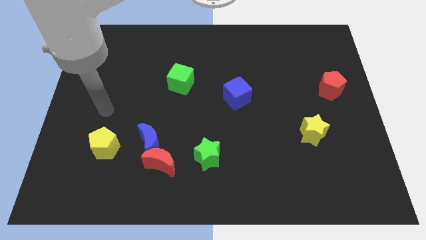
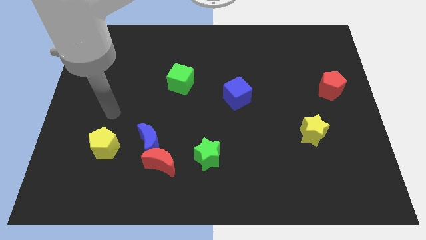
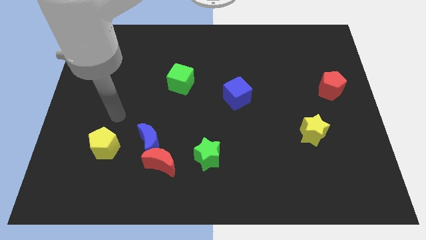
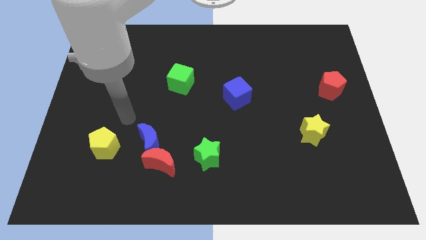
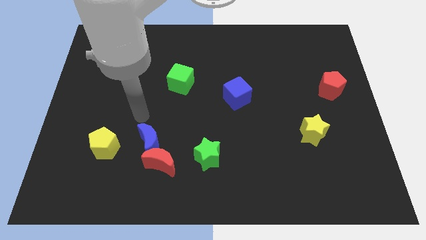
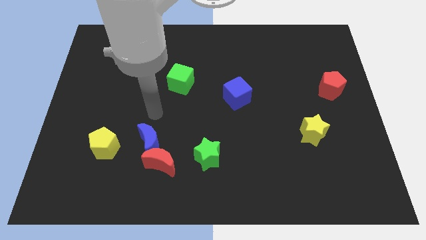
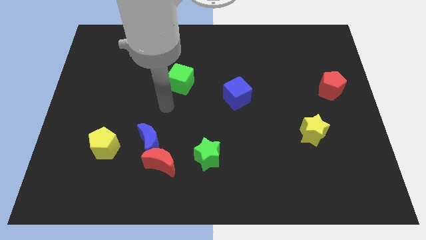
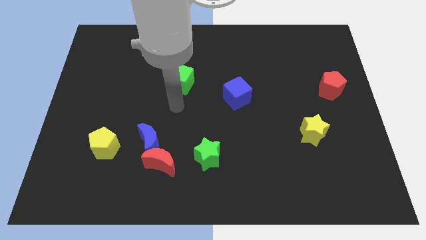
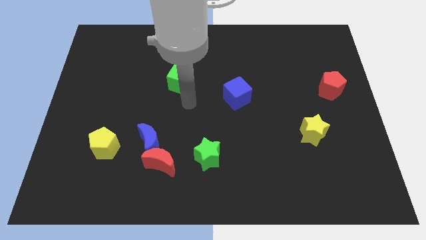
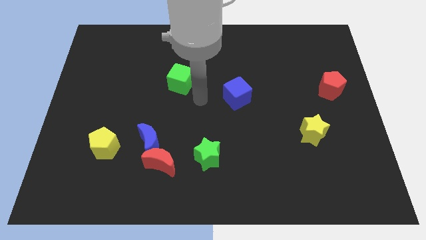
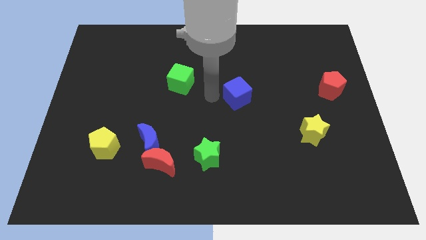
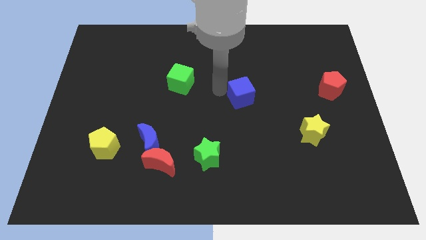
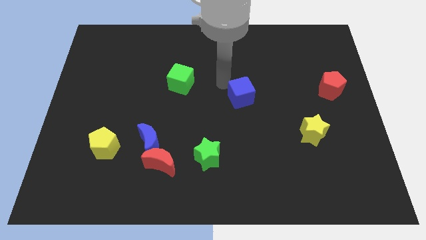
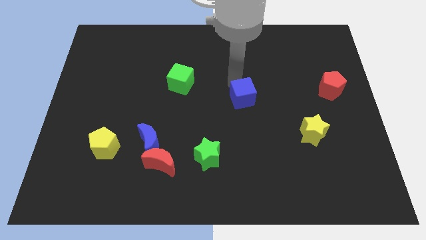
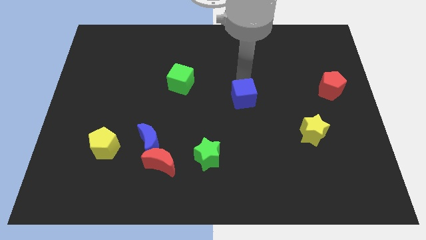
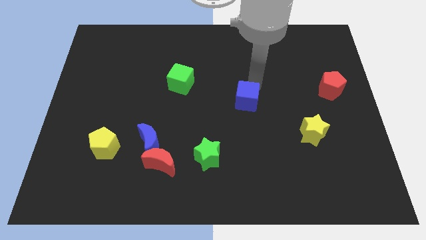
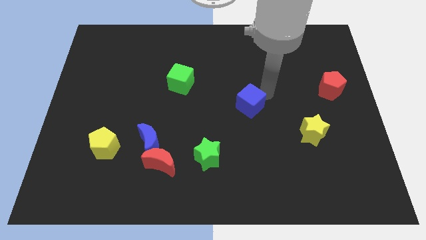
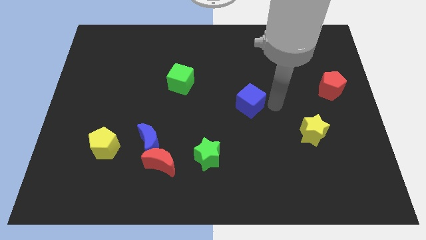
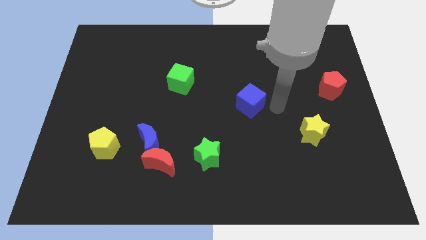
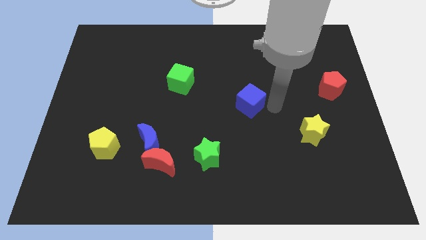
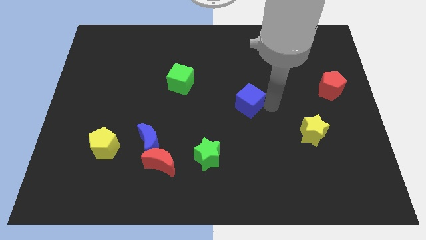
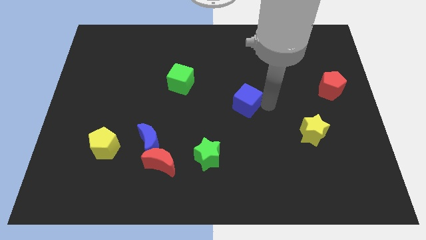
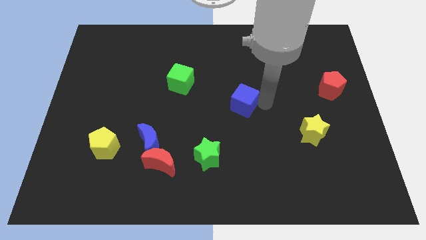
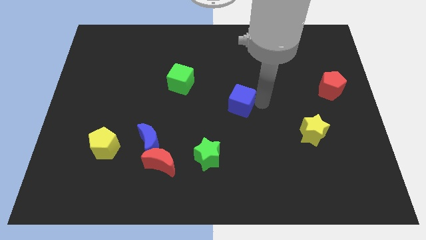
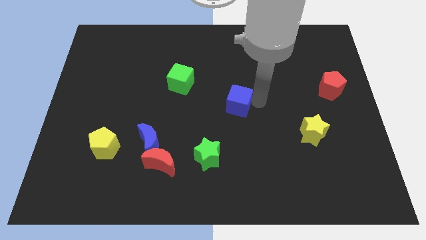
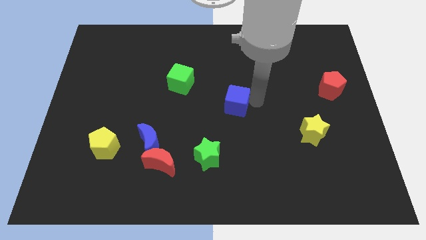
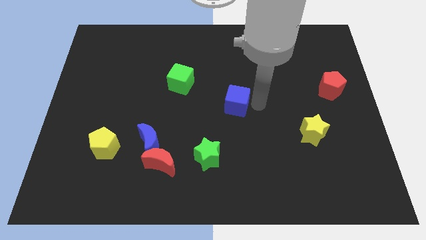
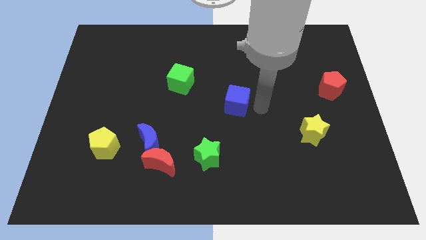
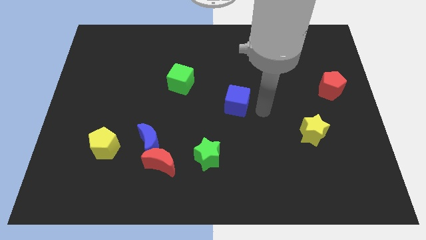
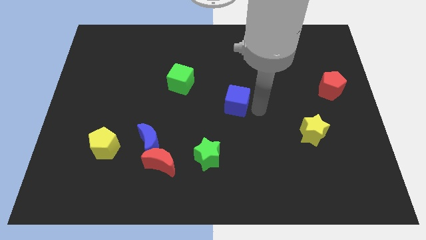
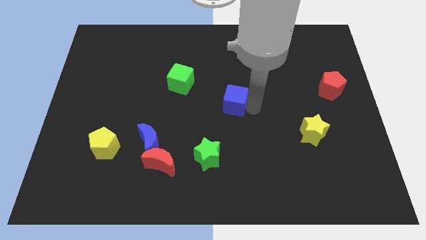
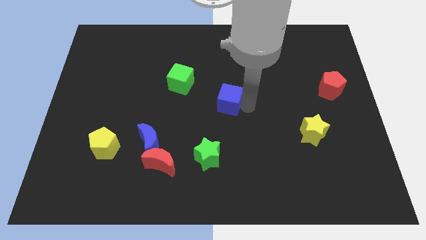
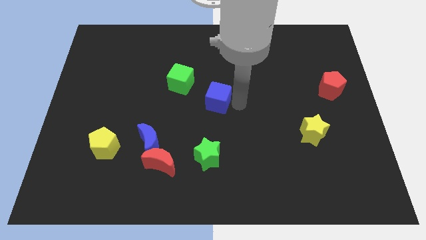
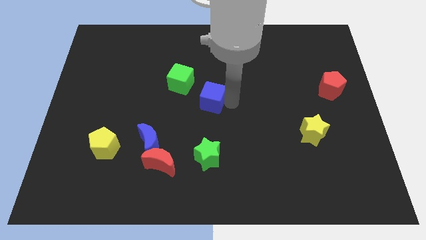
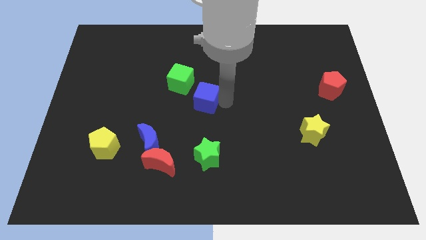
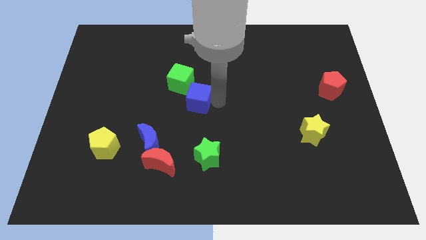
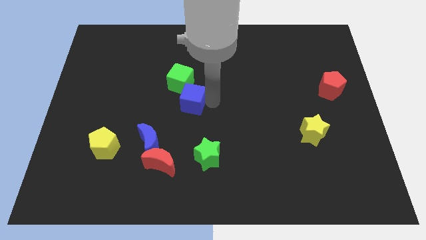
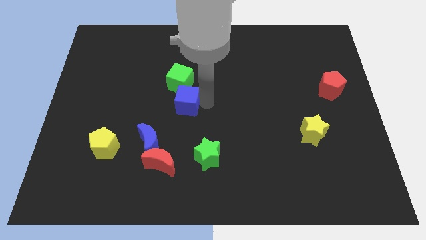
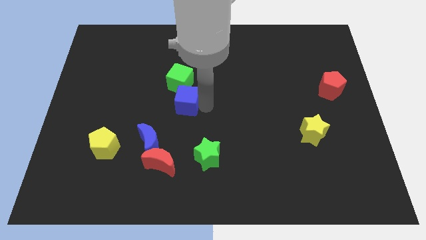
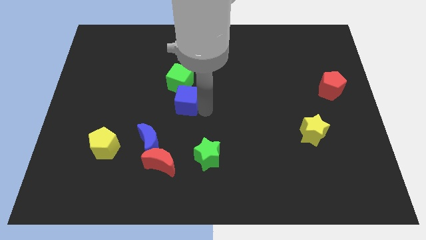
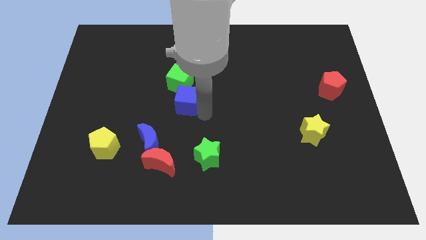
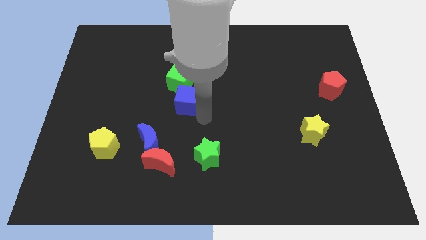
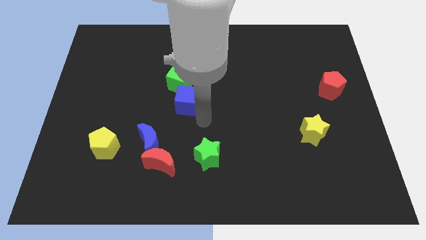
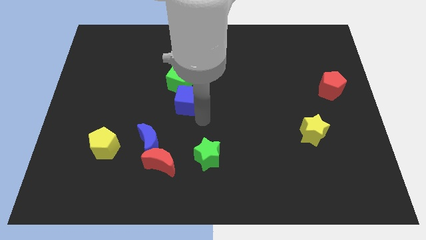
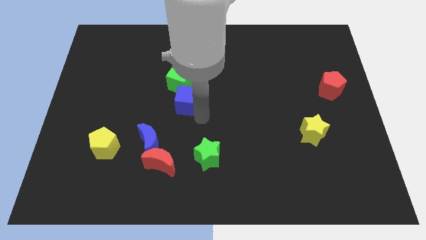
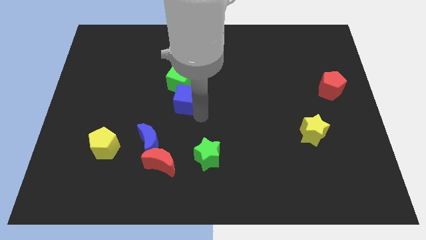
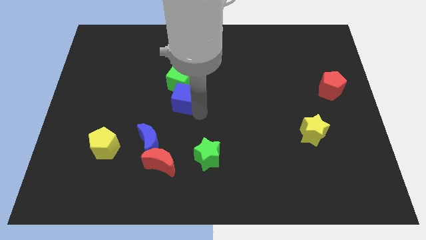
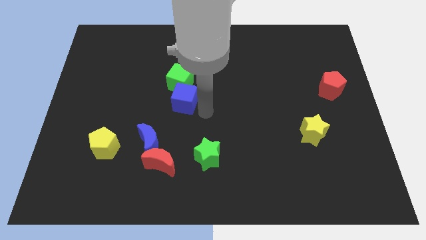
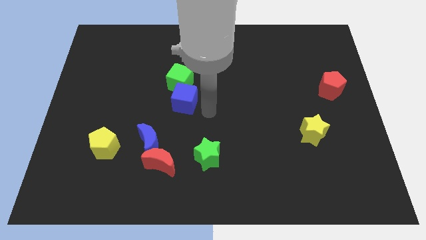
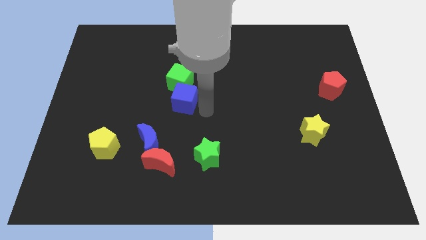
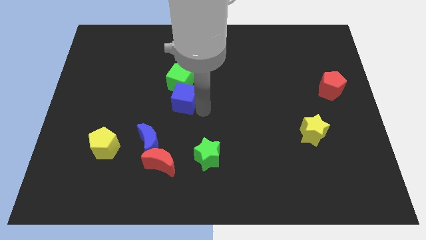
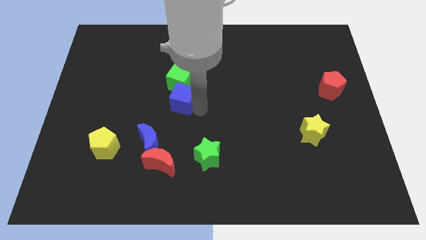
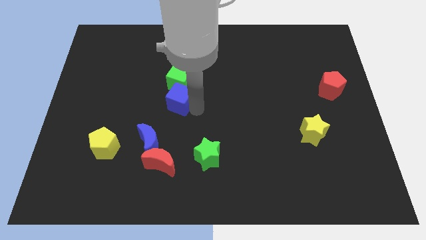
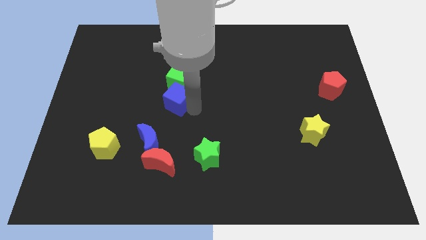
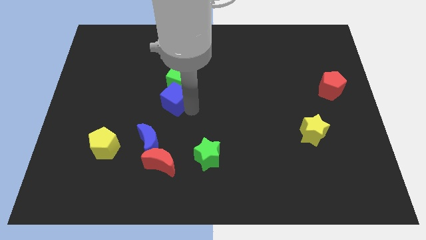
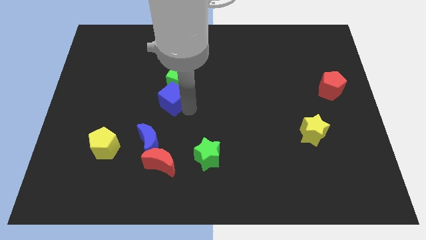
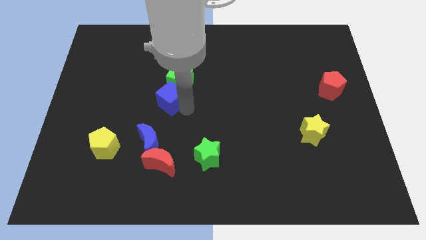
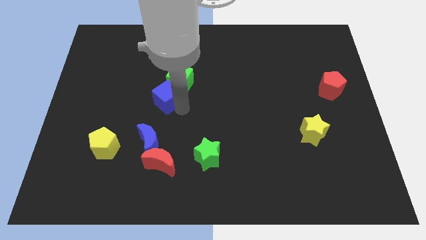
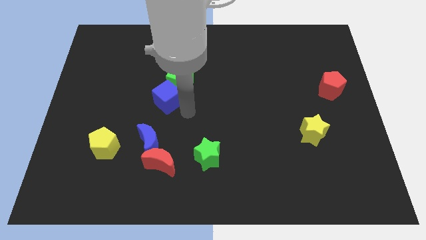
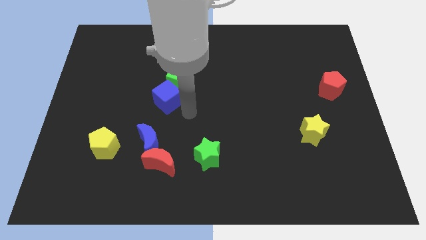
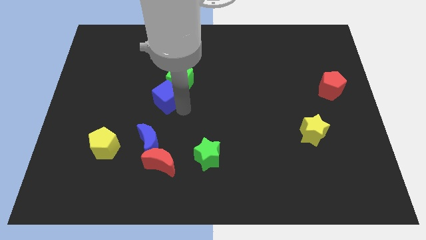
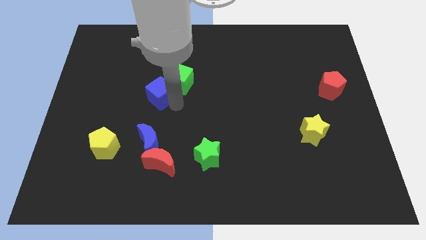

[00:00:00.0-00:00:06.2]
push the blue cube to the left of the green cube
